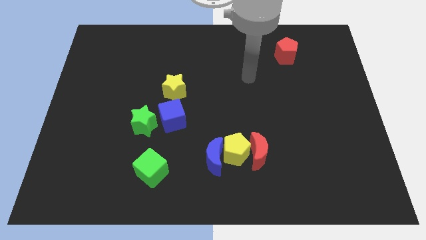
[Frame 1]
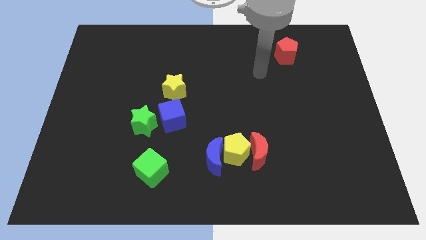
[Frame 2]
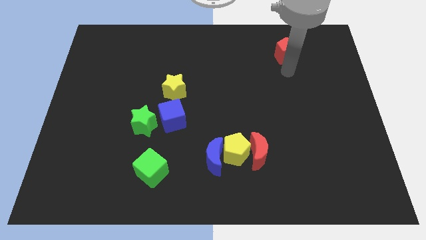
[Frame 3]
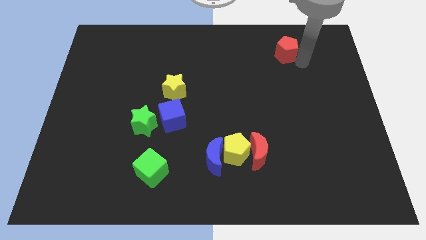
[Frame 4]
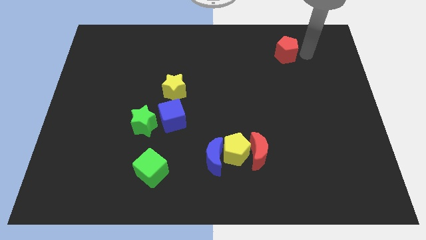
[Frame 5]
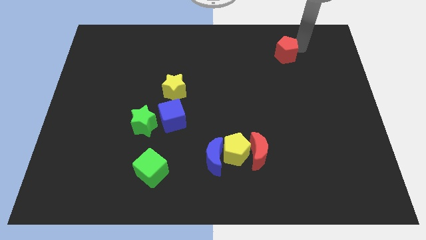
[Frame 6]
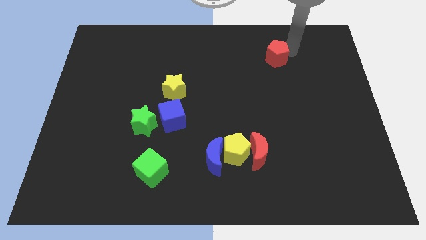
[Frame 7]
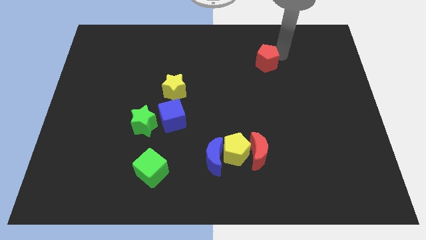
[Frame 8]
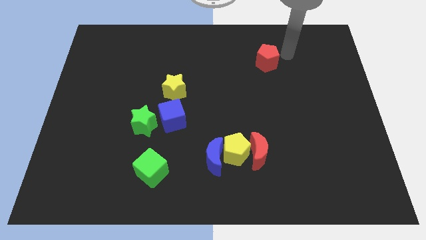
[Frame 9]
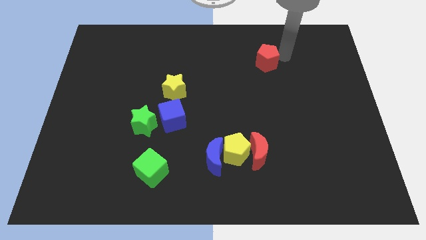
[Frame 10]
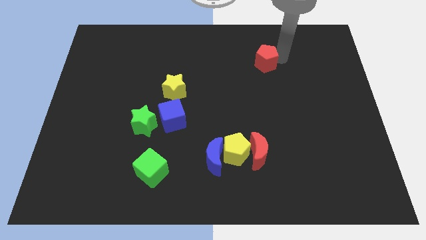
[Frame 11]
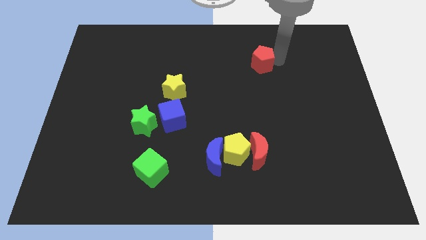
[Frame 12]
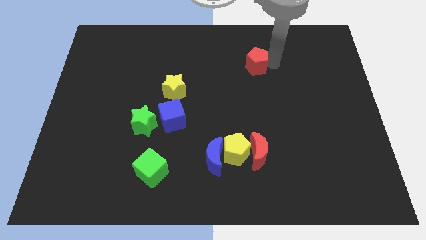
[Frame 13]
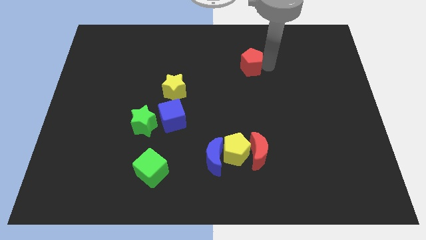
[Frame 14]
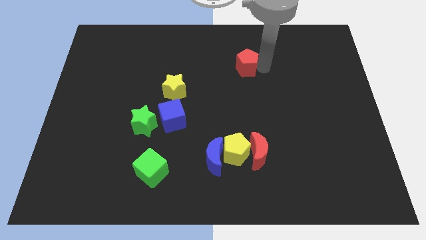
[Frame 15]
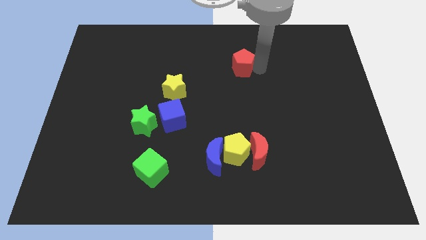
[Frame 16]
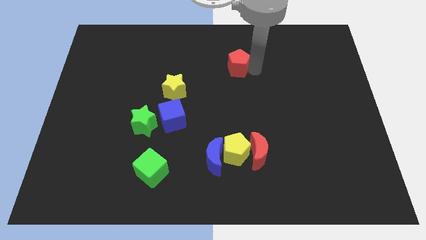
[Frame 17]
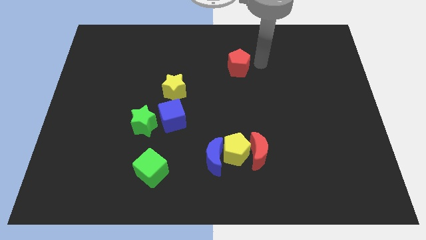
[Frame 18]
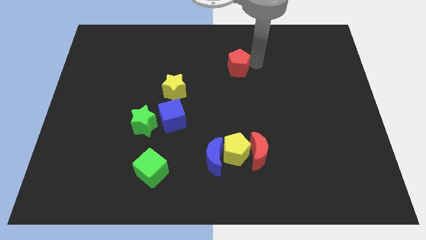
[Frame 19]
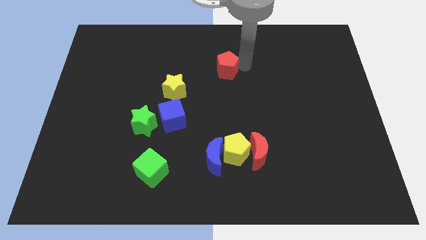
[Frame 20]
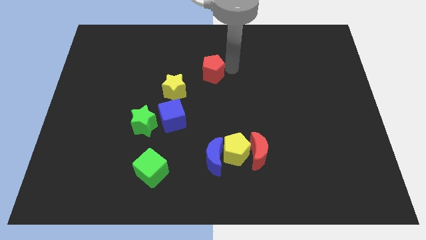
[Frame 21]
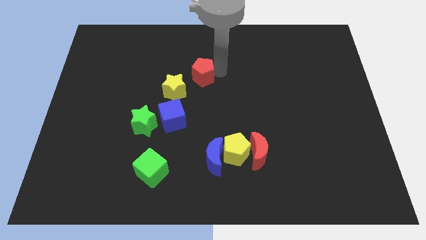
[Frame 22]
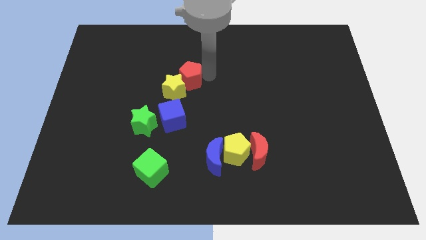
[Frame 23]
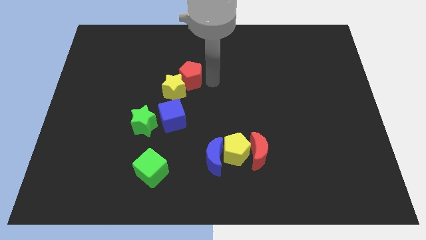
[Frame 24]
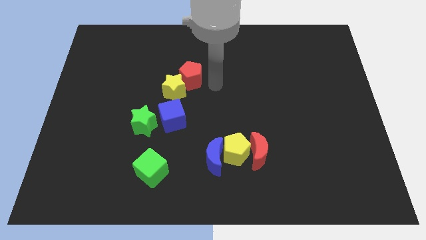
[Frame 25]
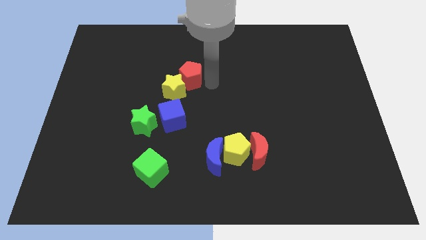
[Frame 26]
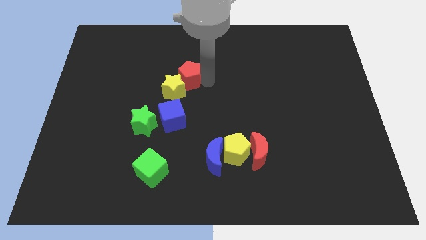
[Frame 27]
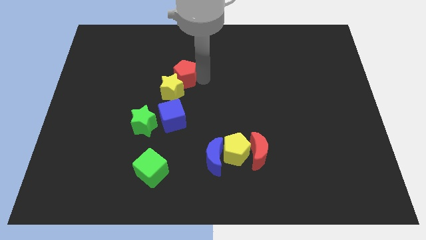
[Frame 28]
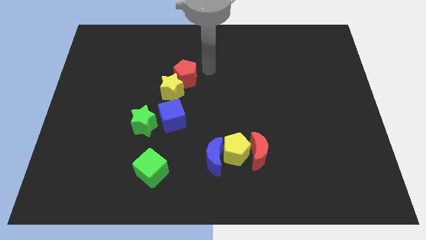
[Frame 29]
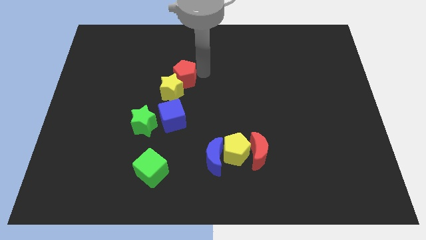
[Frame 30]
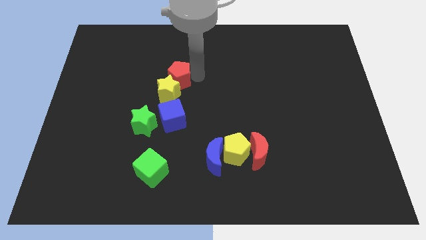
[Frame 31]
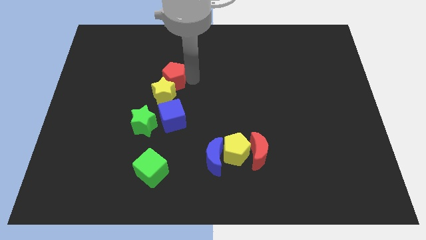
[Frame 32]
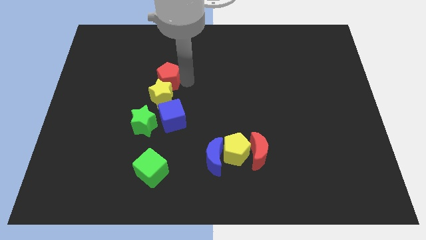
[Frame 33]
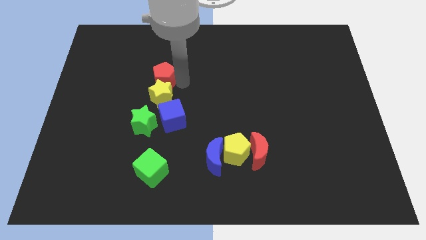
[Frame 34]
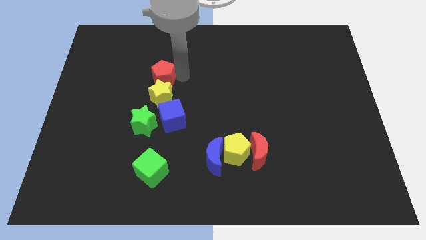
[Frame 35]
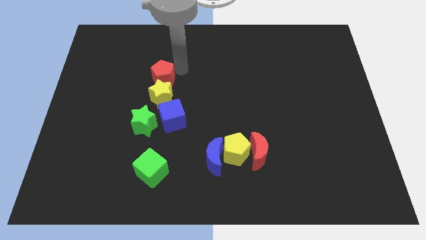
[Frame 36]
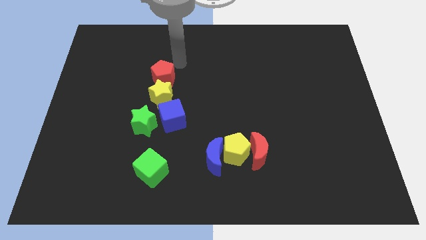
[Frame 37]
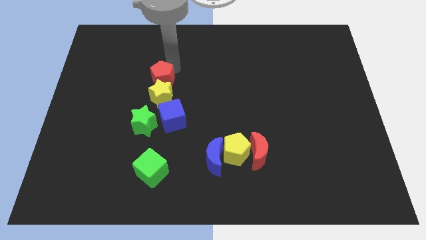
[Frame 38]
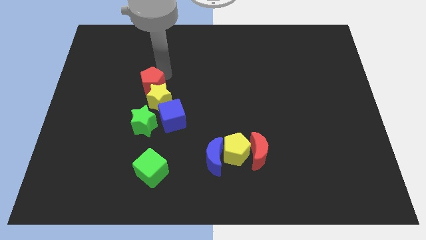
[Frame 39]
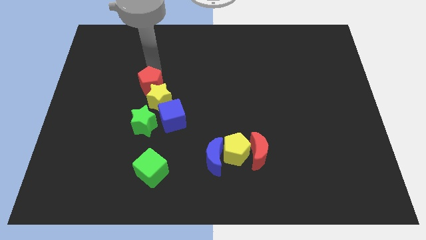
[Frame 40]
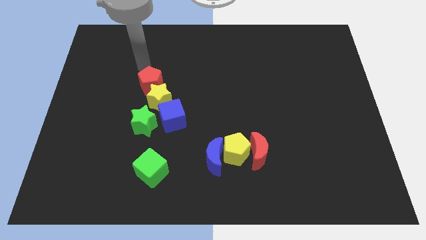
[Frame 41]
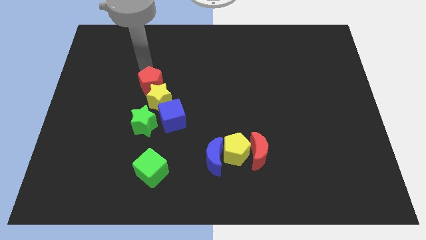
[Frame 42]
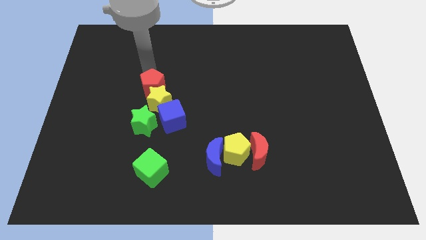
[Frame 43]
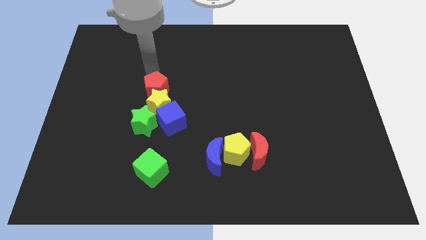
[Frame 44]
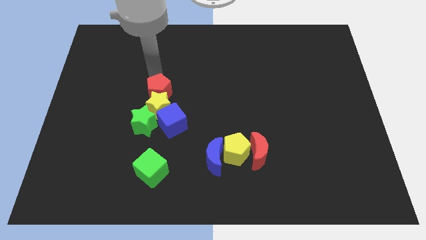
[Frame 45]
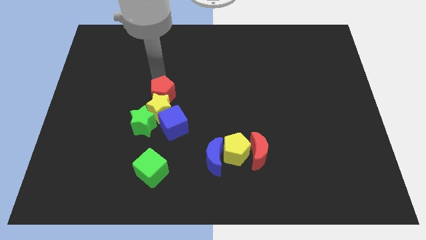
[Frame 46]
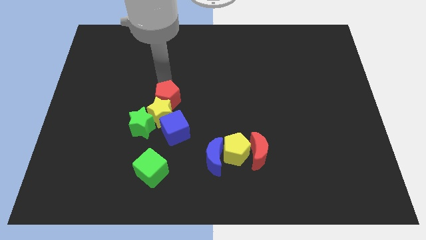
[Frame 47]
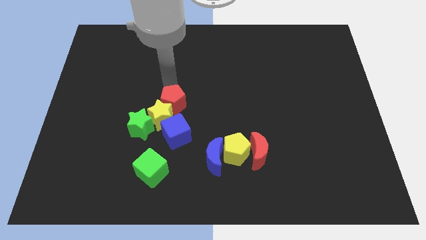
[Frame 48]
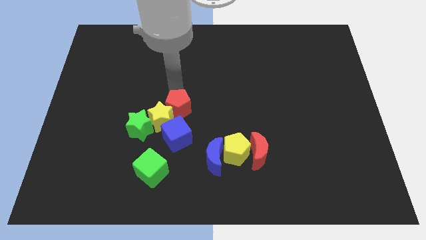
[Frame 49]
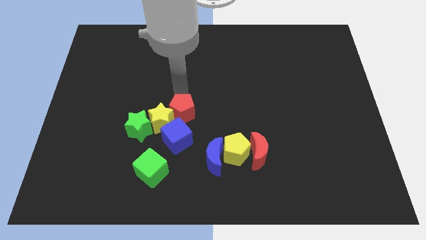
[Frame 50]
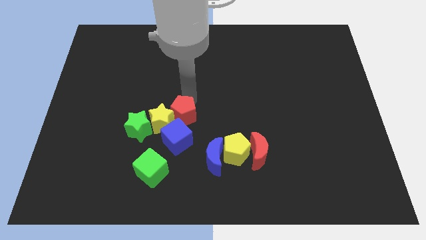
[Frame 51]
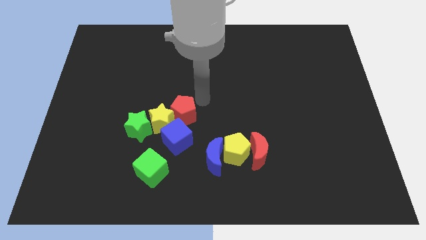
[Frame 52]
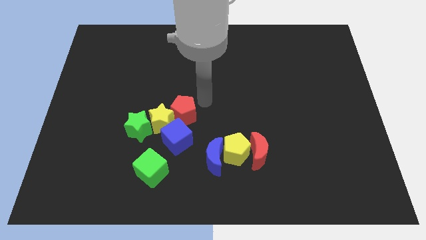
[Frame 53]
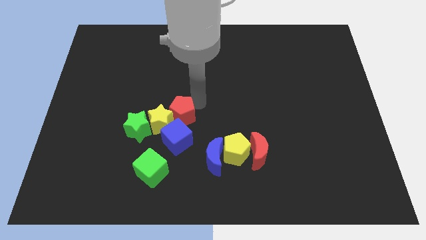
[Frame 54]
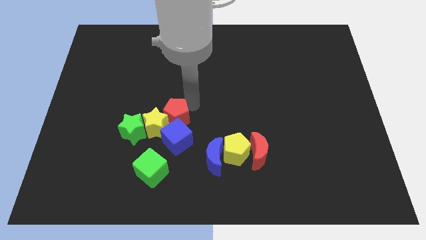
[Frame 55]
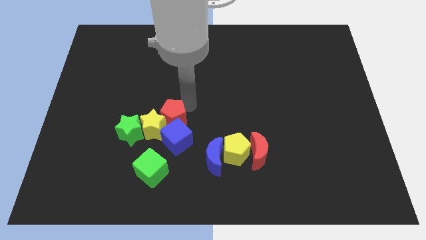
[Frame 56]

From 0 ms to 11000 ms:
slide the red pentagon above the green cube

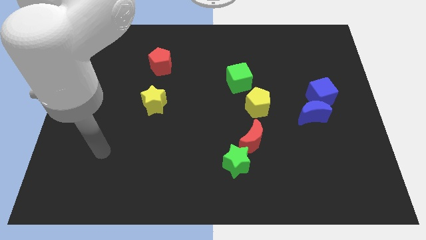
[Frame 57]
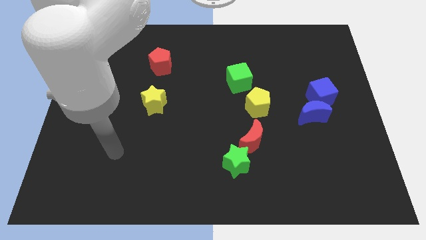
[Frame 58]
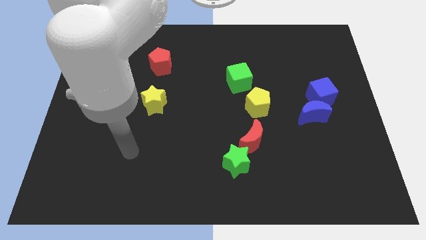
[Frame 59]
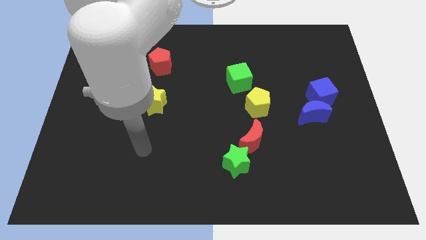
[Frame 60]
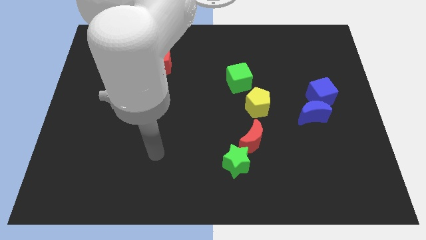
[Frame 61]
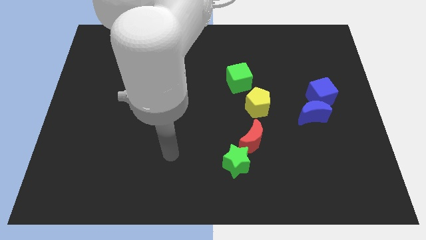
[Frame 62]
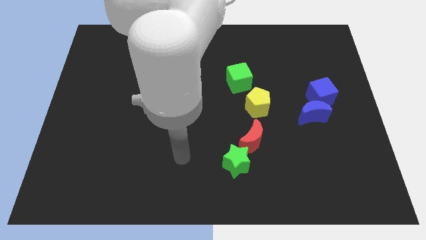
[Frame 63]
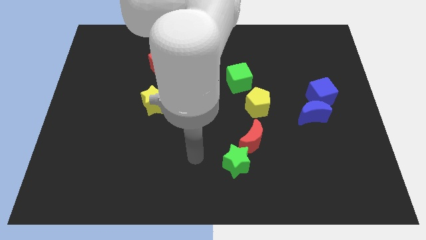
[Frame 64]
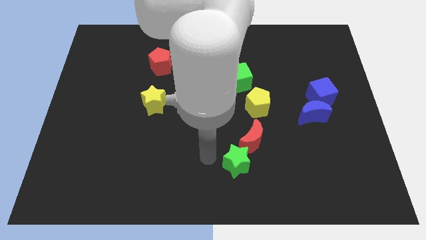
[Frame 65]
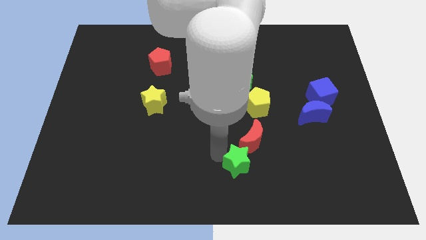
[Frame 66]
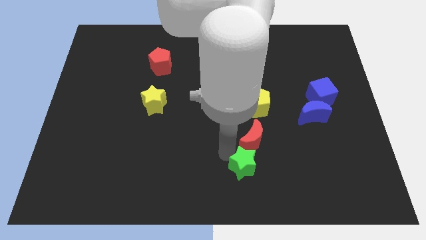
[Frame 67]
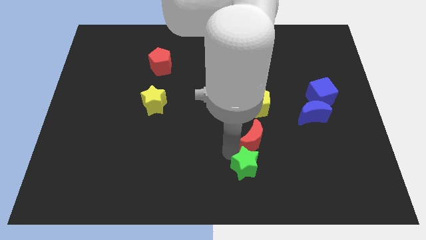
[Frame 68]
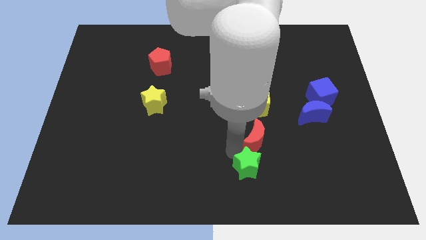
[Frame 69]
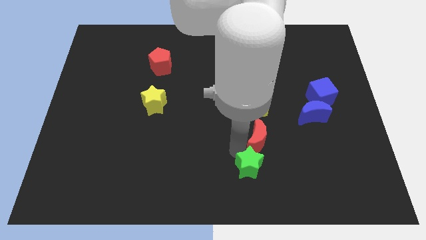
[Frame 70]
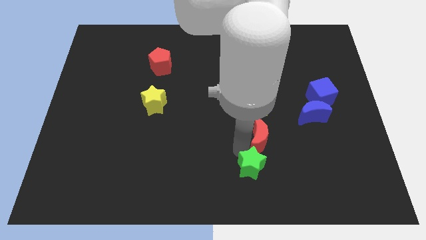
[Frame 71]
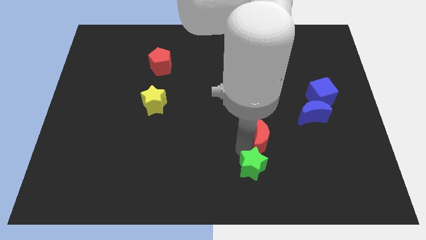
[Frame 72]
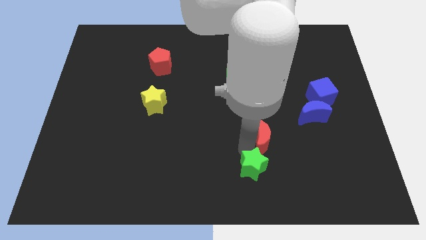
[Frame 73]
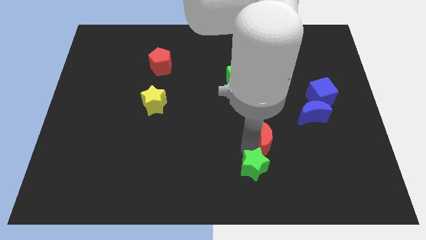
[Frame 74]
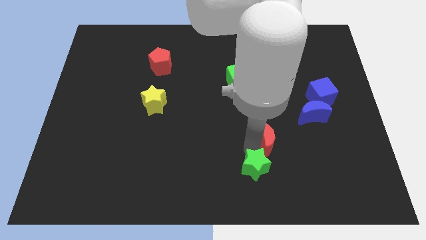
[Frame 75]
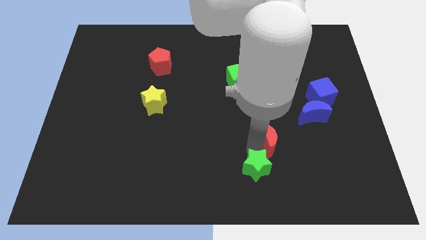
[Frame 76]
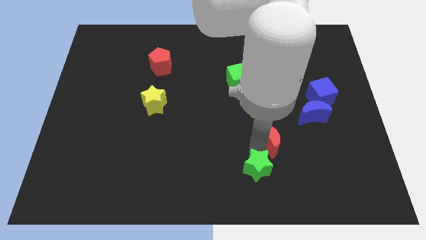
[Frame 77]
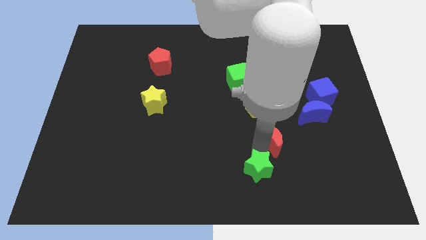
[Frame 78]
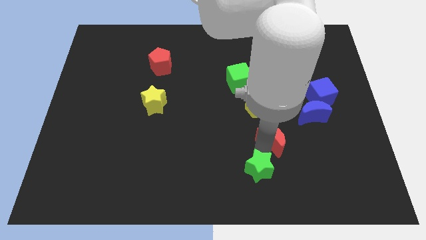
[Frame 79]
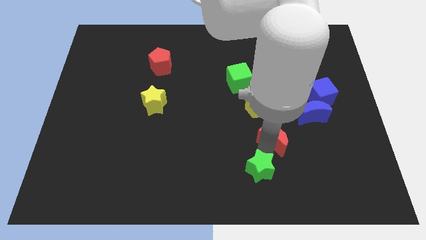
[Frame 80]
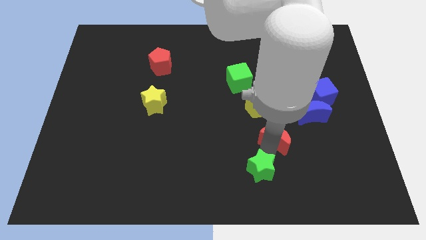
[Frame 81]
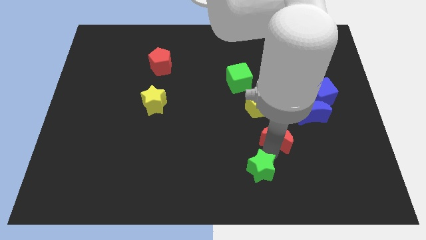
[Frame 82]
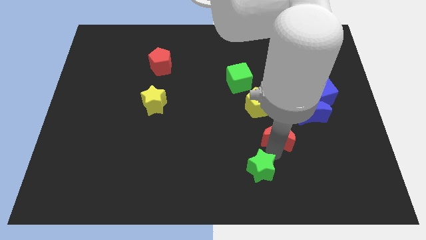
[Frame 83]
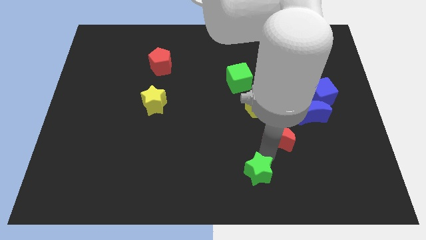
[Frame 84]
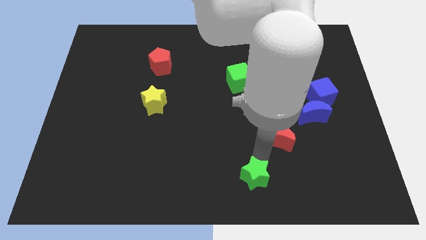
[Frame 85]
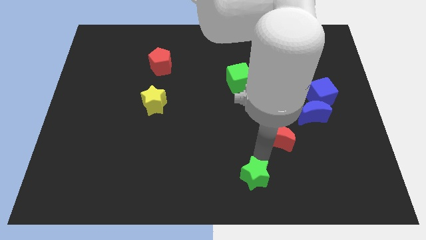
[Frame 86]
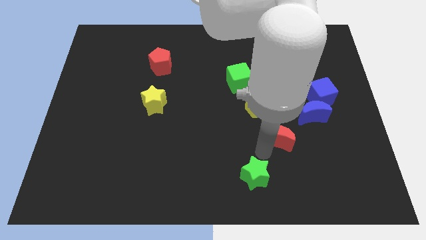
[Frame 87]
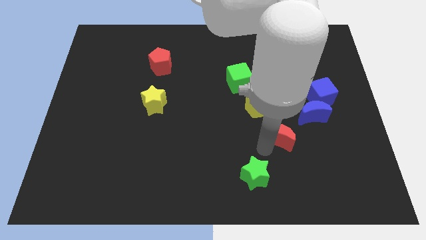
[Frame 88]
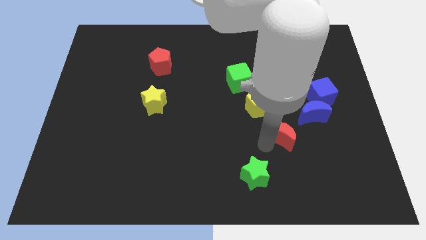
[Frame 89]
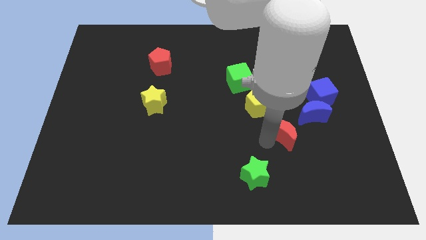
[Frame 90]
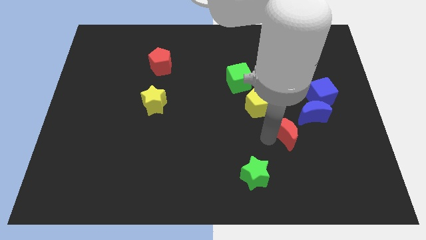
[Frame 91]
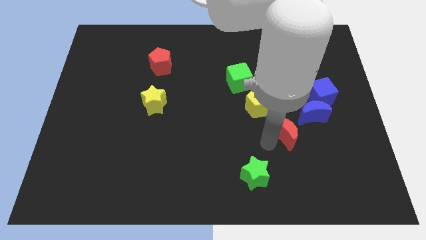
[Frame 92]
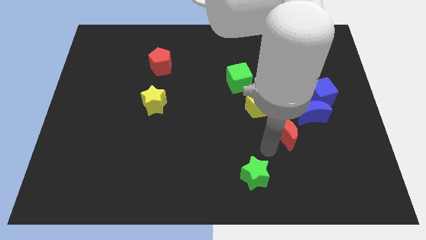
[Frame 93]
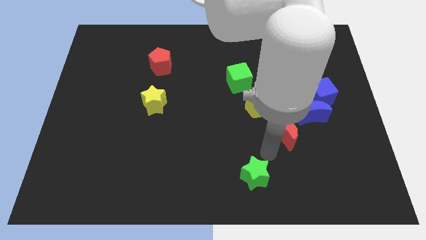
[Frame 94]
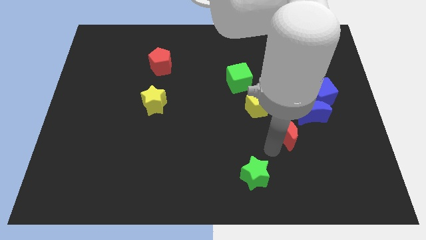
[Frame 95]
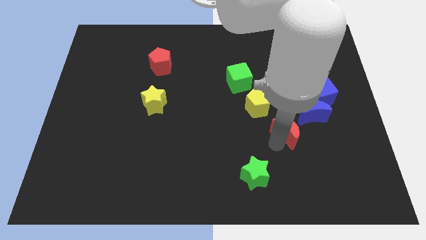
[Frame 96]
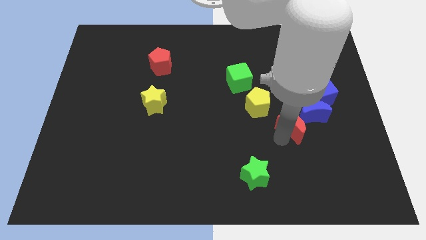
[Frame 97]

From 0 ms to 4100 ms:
slide the red moon diagonally down and to the left of the blue cube
